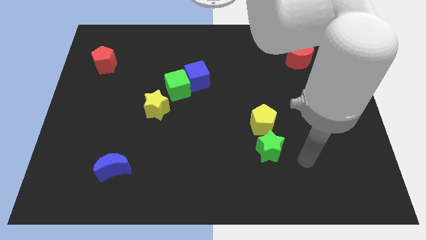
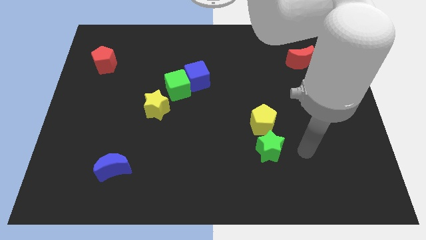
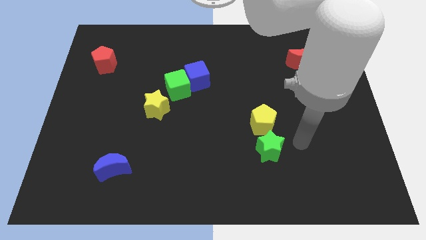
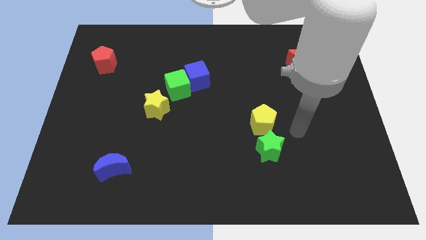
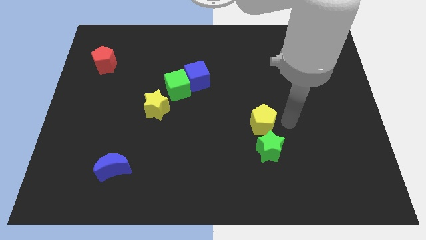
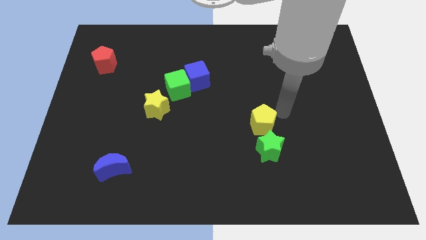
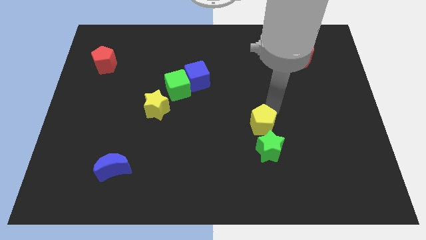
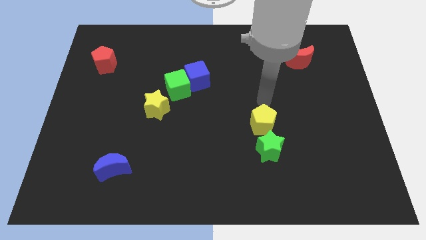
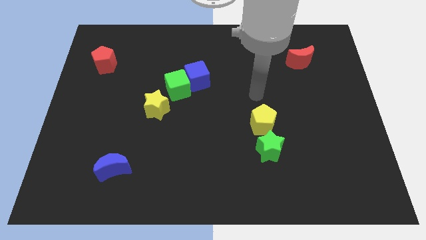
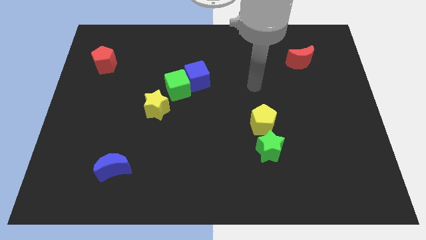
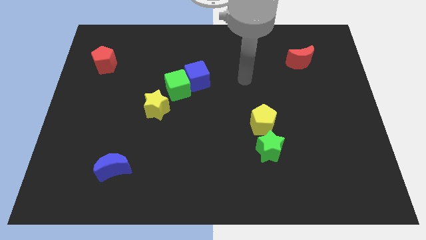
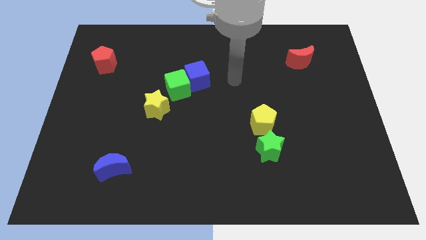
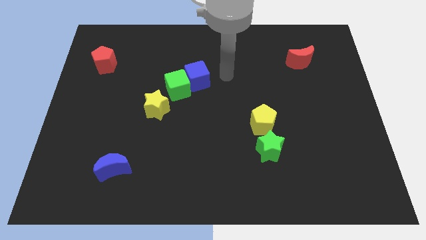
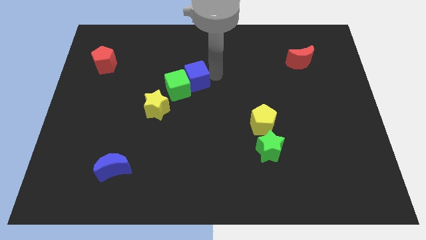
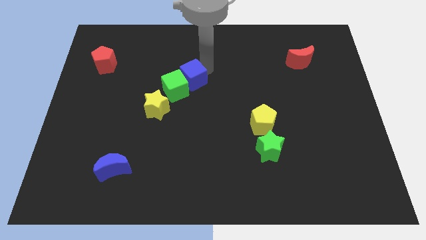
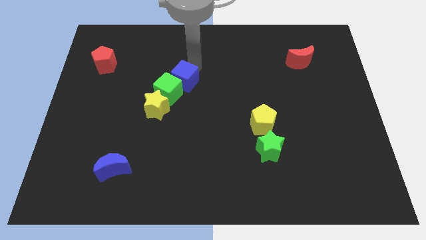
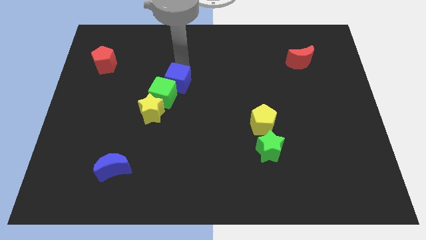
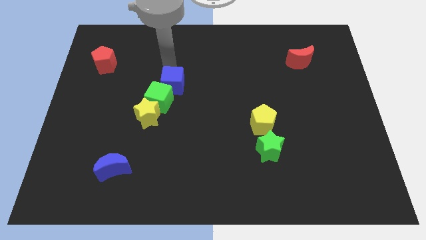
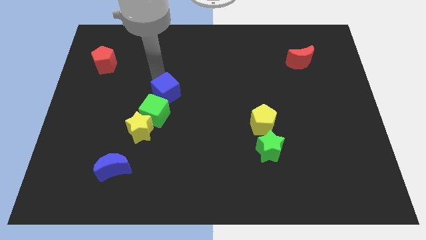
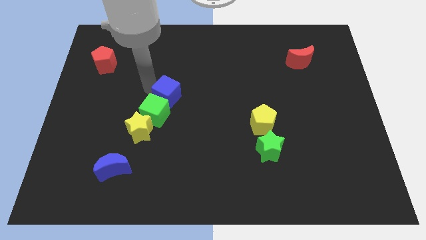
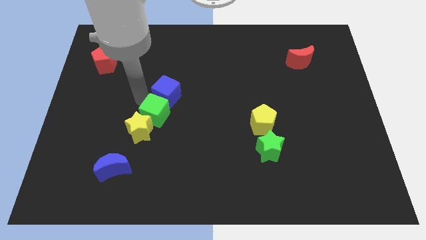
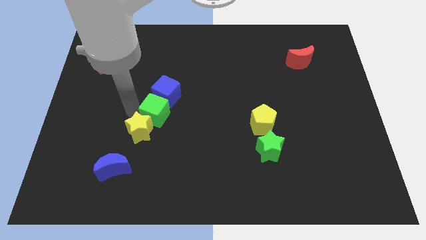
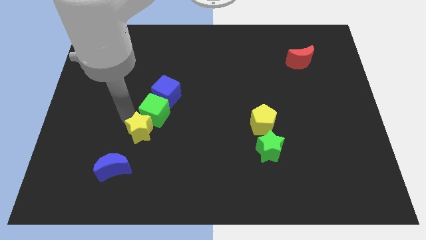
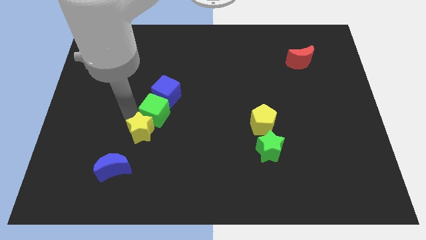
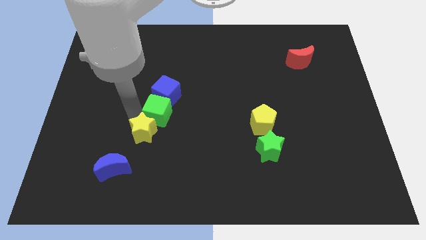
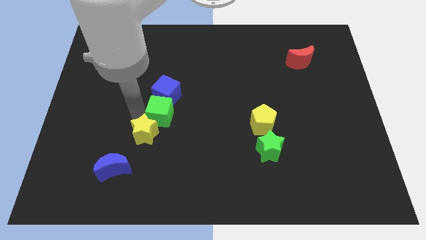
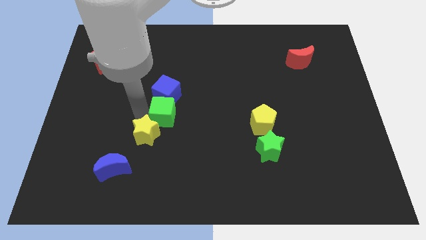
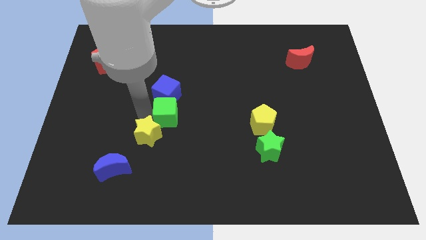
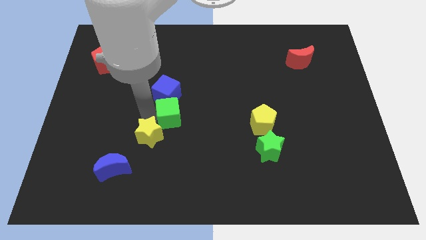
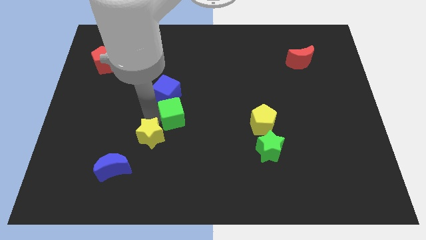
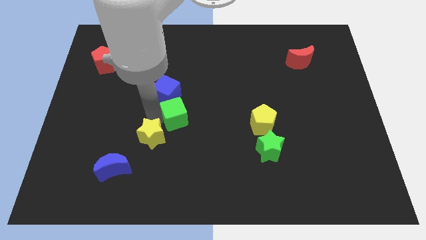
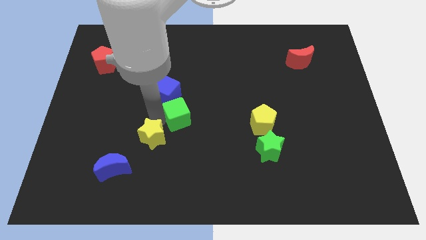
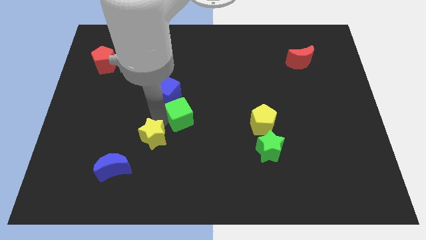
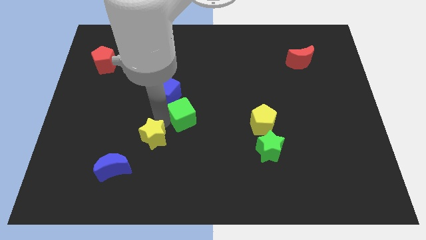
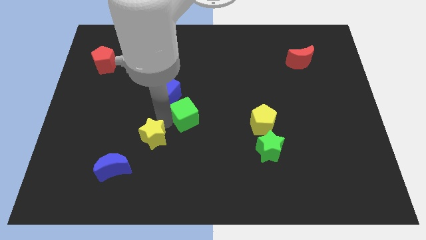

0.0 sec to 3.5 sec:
move the green cube down and then to the right slightly

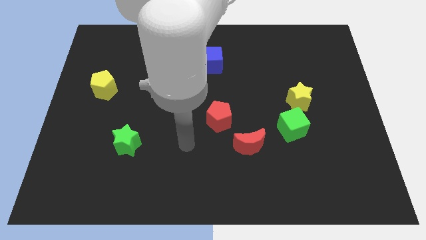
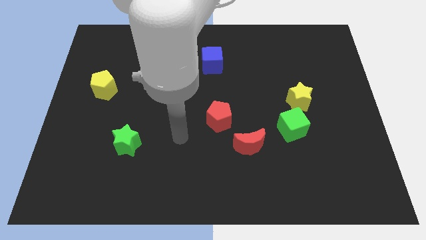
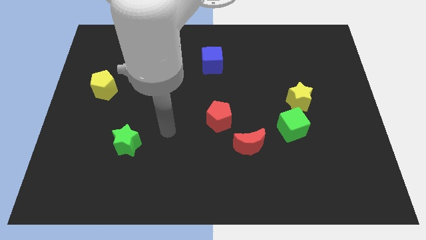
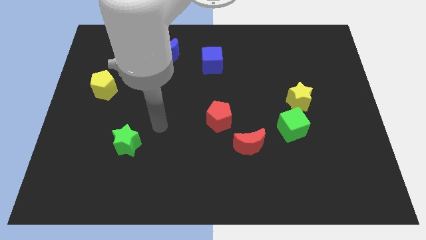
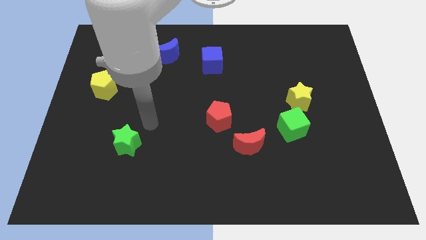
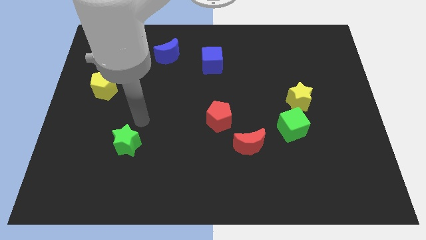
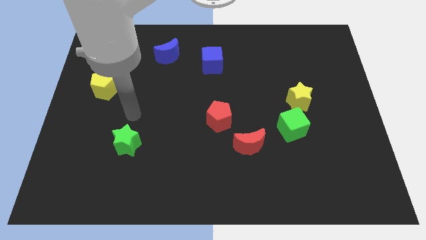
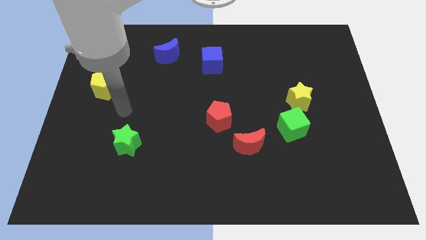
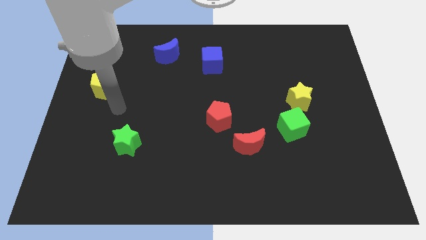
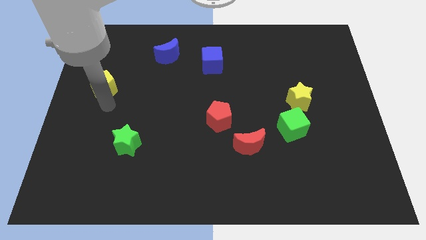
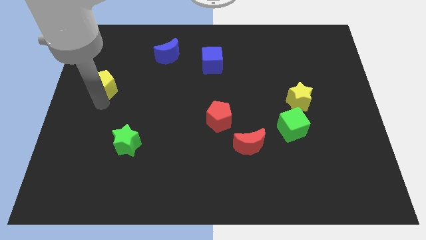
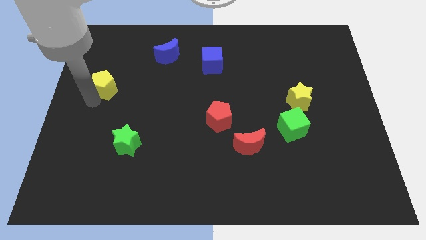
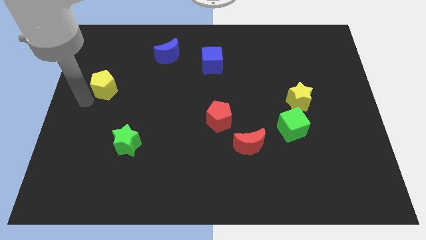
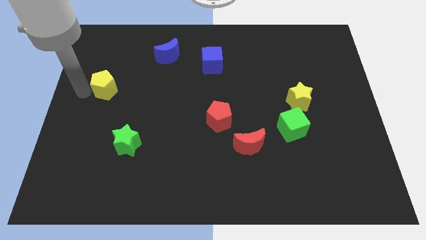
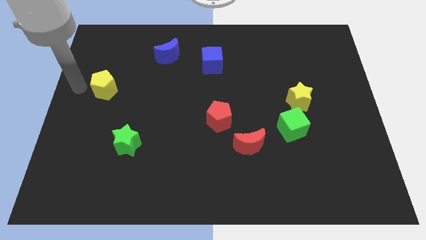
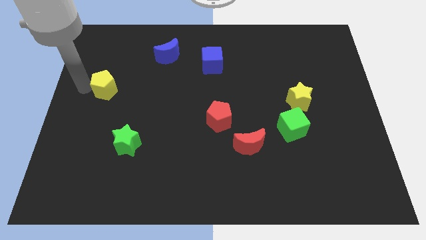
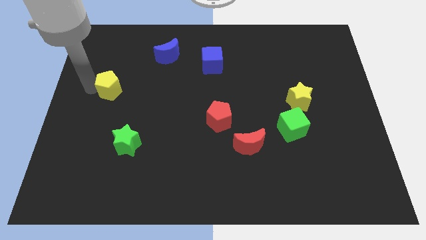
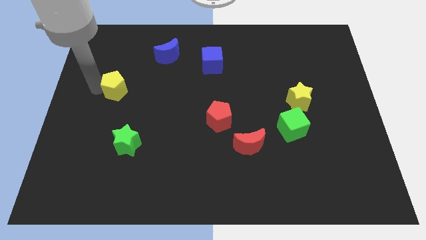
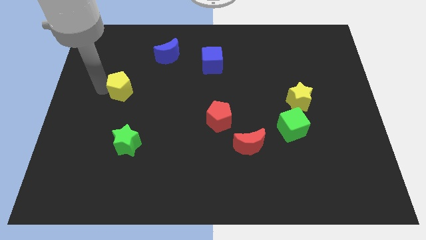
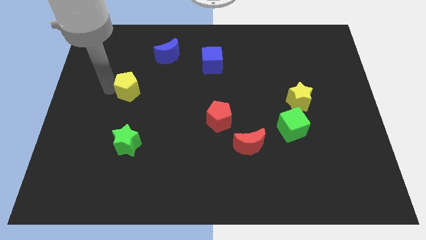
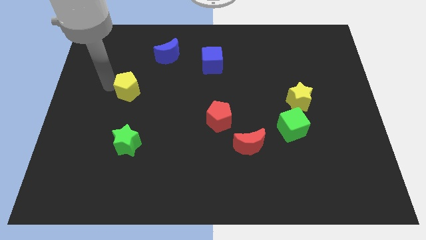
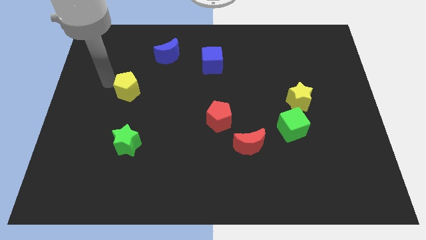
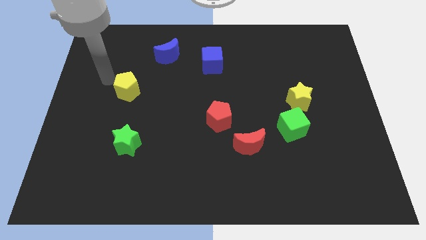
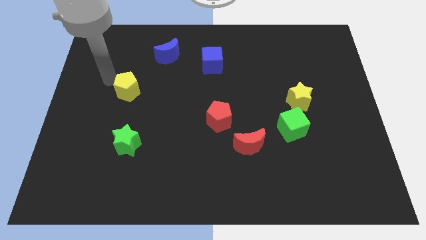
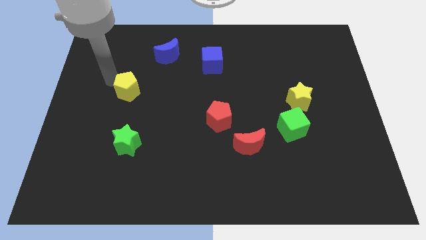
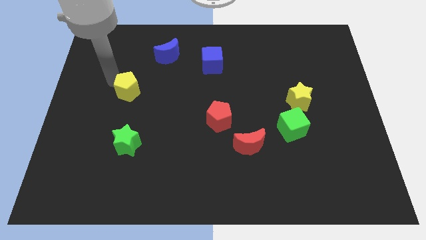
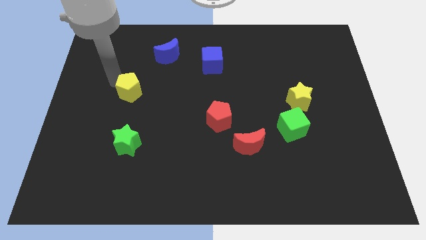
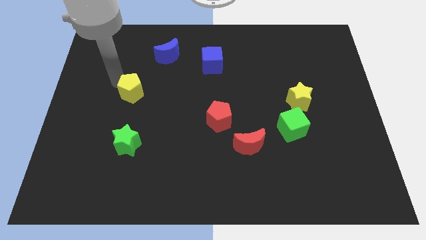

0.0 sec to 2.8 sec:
slightly push the yellow pentagon to the right

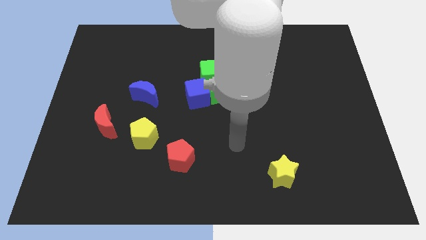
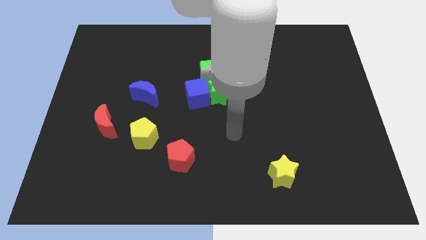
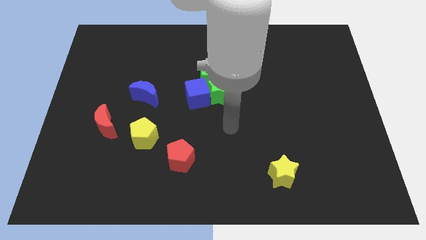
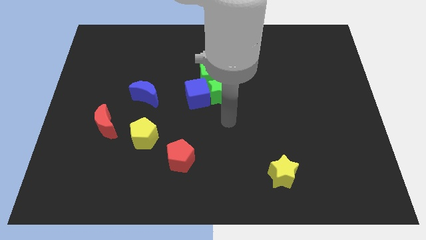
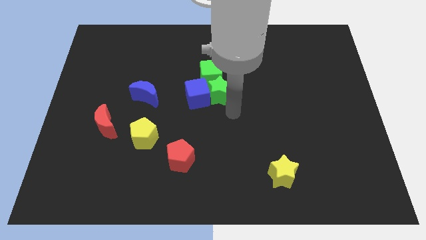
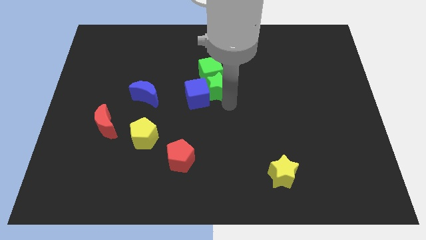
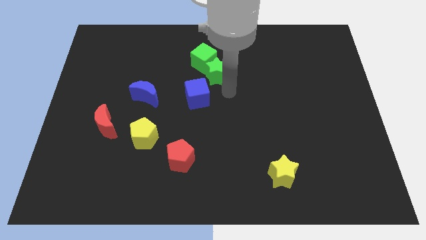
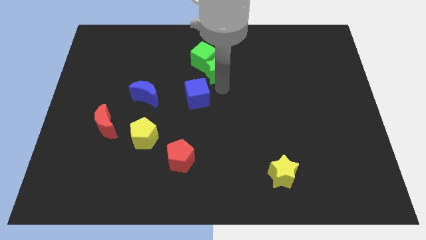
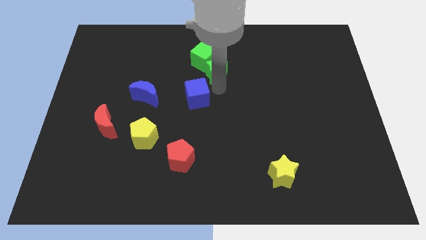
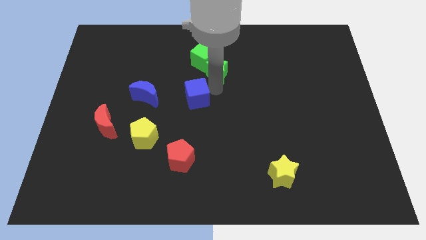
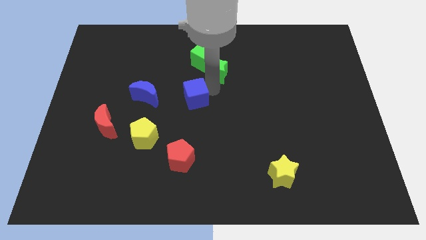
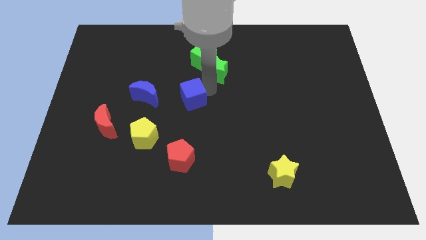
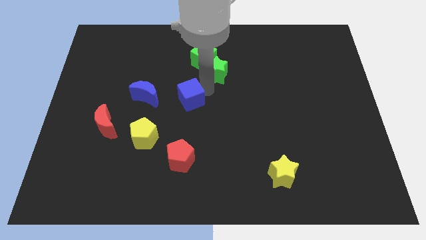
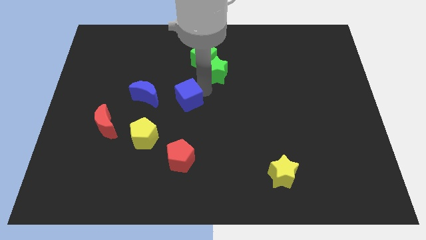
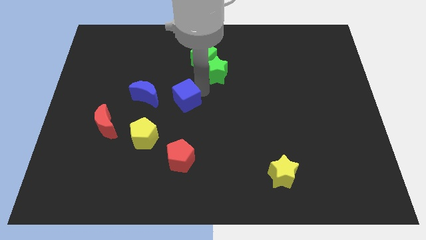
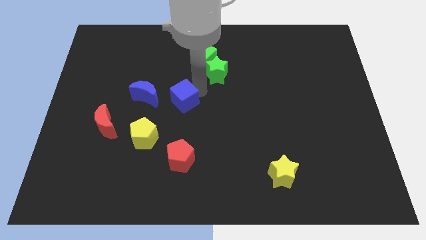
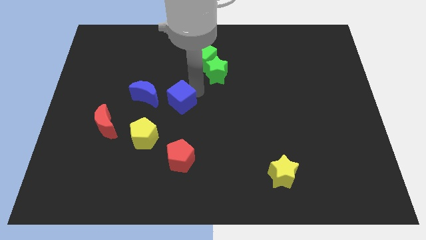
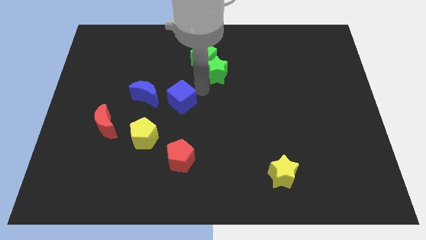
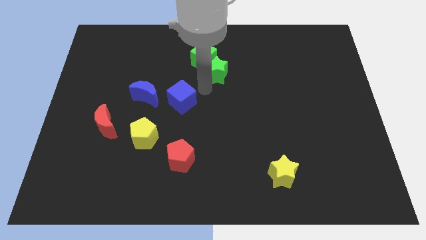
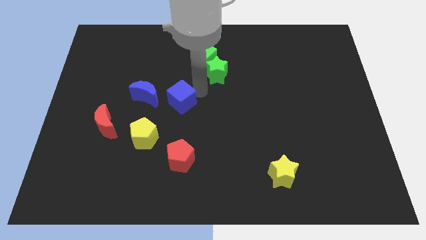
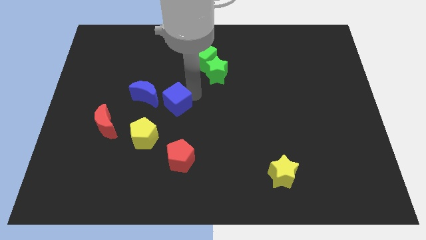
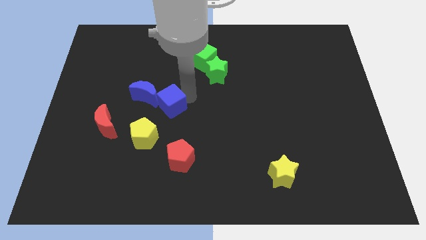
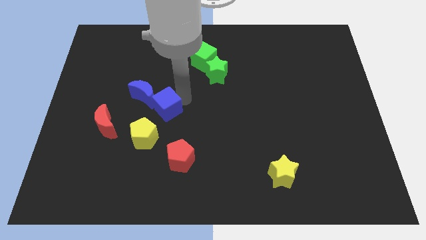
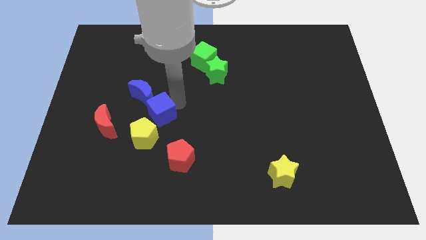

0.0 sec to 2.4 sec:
slightly slide the blue cube left
